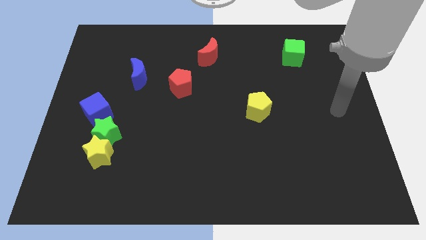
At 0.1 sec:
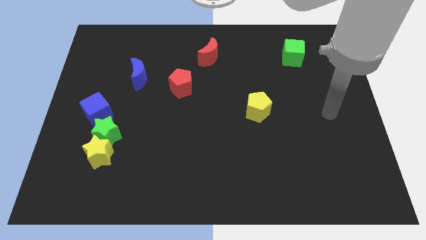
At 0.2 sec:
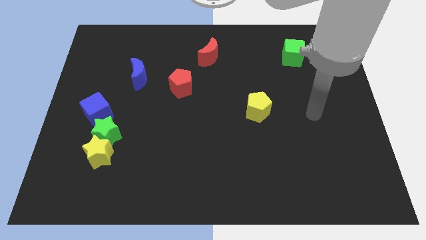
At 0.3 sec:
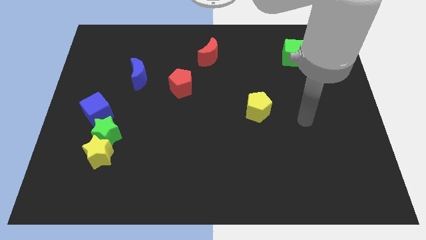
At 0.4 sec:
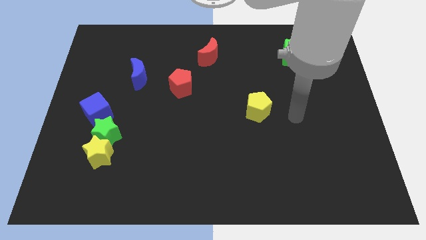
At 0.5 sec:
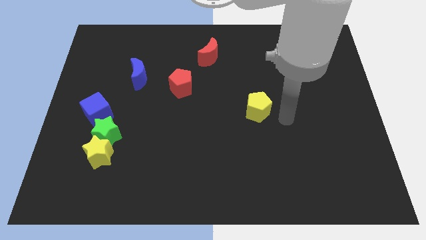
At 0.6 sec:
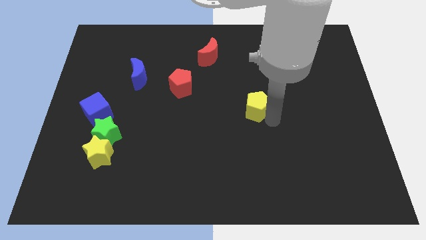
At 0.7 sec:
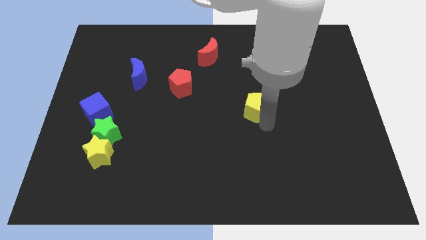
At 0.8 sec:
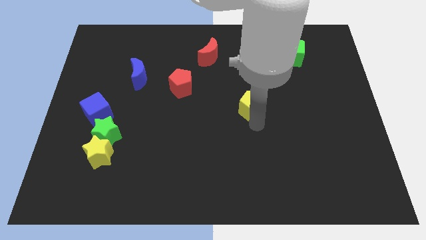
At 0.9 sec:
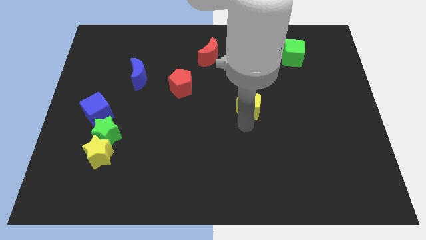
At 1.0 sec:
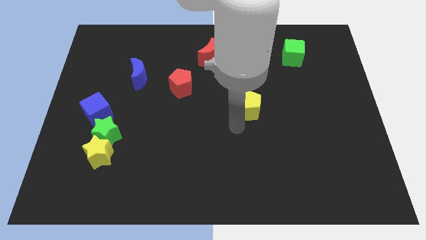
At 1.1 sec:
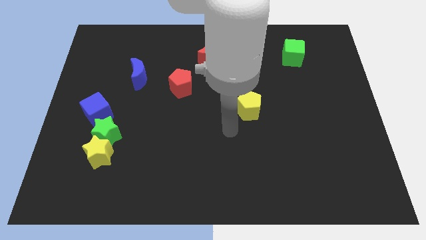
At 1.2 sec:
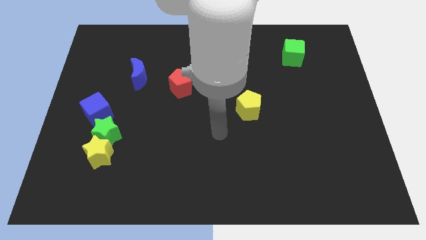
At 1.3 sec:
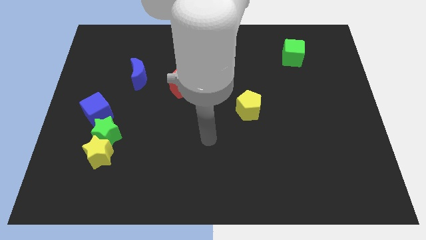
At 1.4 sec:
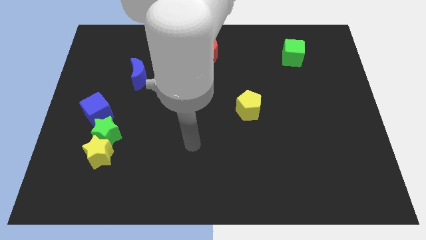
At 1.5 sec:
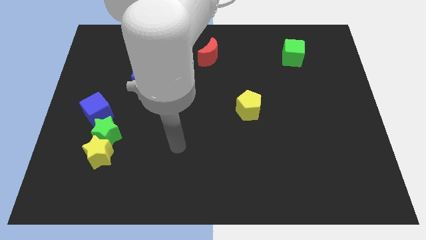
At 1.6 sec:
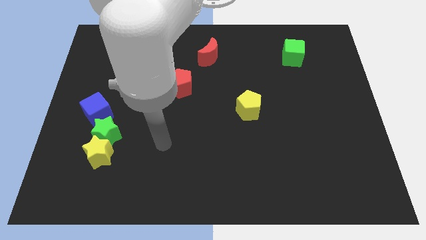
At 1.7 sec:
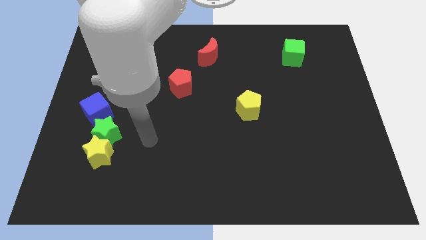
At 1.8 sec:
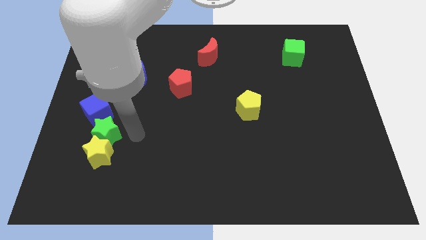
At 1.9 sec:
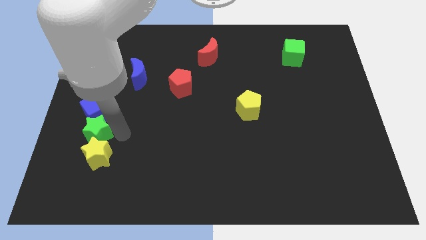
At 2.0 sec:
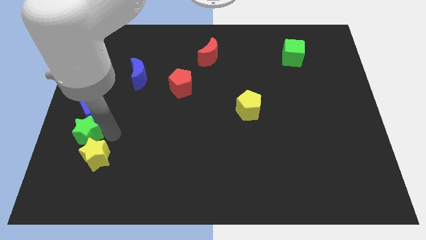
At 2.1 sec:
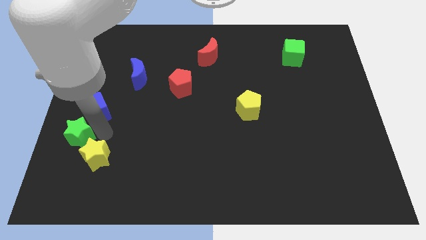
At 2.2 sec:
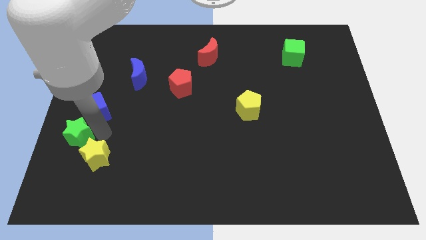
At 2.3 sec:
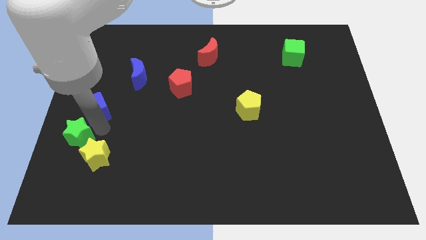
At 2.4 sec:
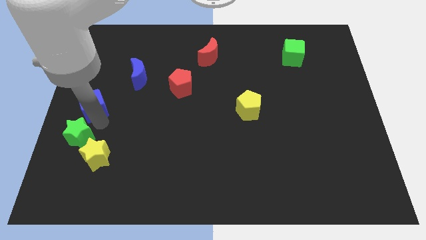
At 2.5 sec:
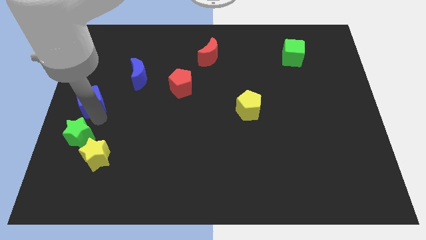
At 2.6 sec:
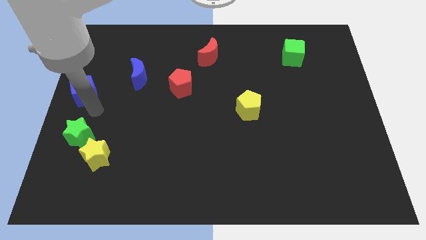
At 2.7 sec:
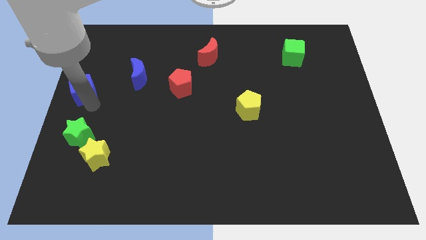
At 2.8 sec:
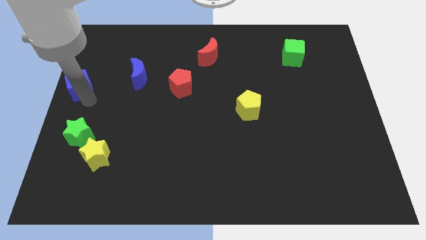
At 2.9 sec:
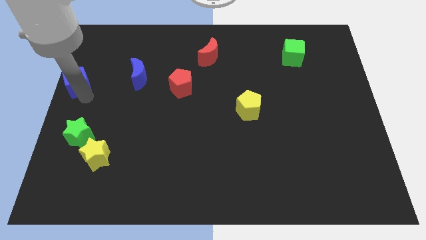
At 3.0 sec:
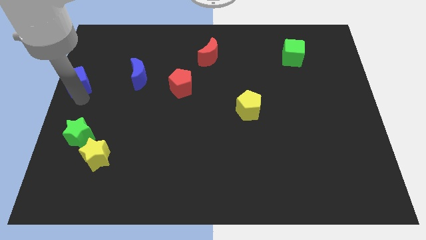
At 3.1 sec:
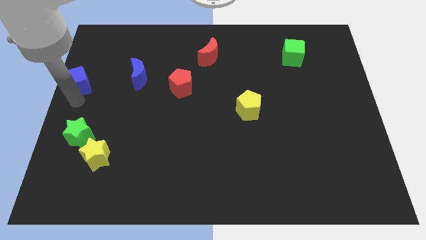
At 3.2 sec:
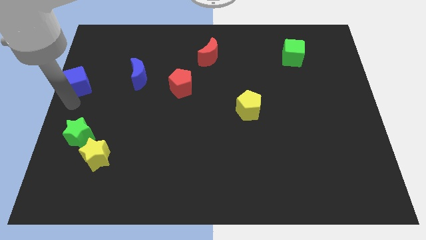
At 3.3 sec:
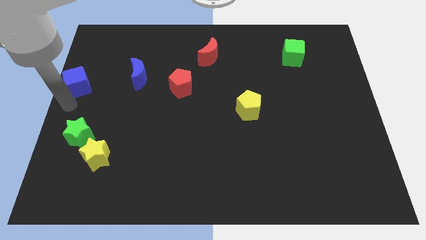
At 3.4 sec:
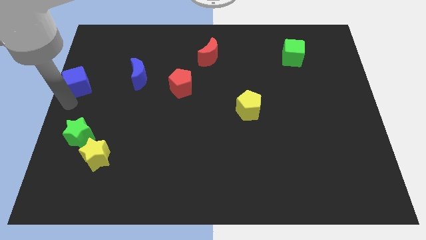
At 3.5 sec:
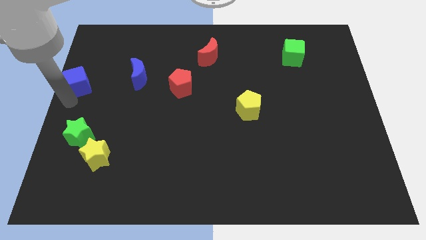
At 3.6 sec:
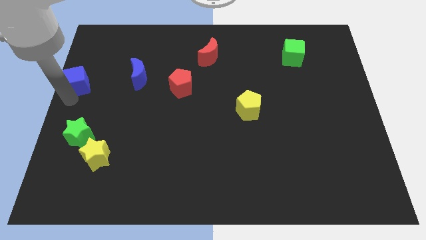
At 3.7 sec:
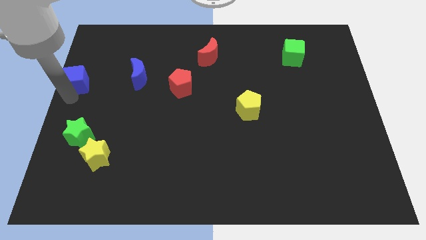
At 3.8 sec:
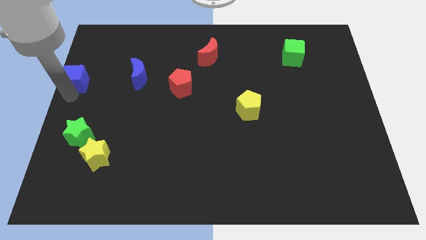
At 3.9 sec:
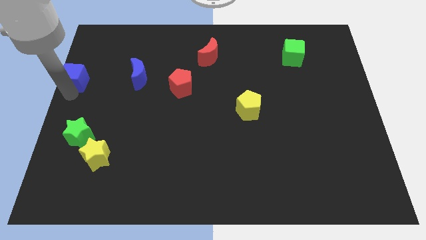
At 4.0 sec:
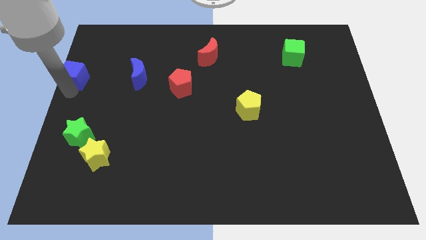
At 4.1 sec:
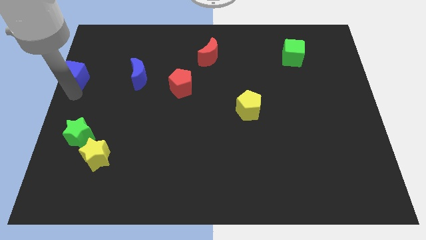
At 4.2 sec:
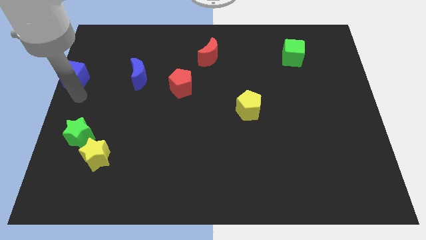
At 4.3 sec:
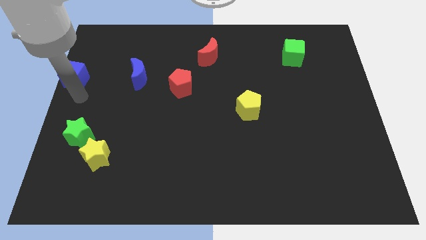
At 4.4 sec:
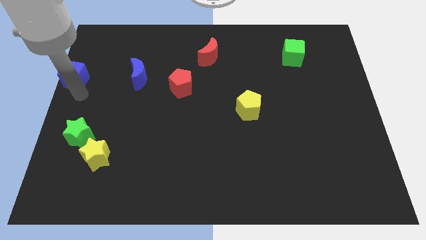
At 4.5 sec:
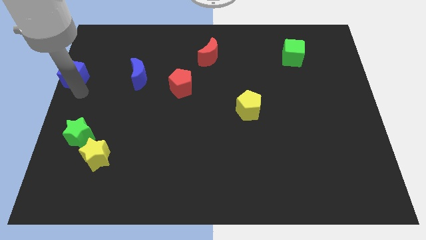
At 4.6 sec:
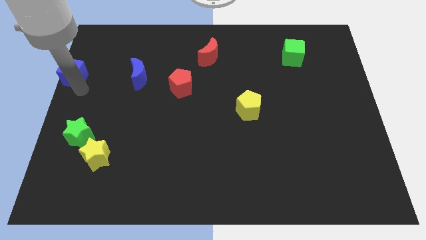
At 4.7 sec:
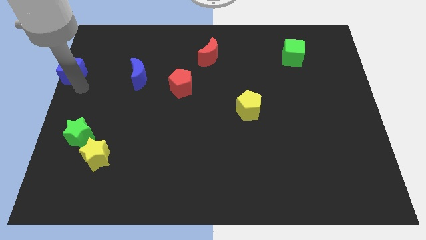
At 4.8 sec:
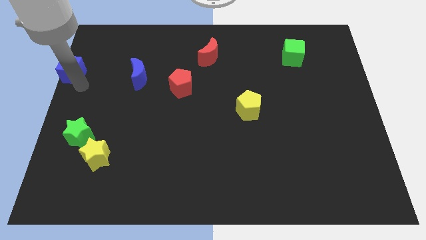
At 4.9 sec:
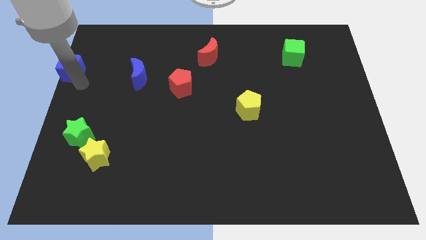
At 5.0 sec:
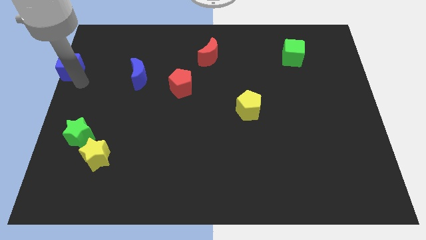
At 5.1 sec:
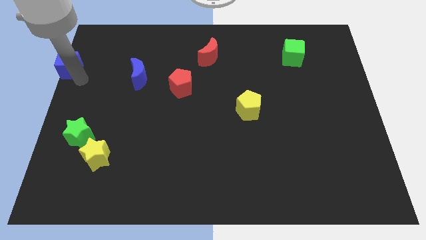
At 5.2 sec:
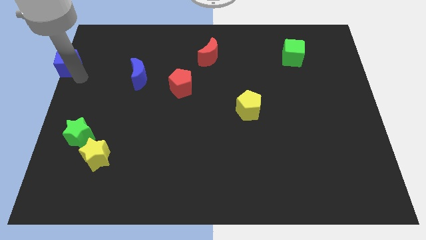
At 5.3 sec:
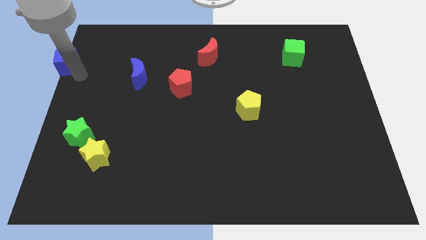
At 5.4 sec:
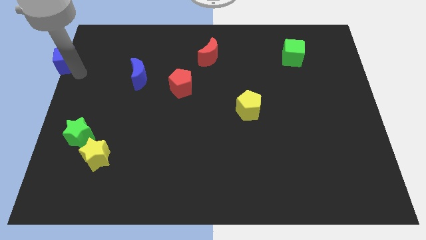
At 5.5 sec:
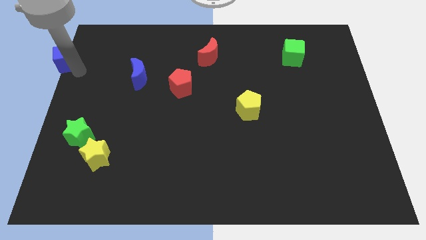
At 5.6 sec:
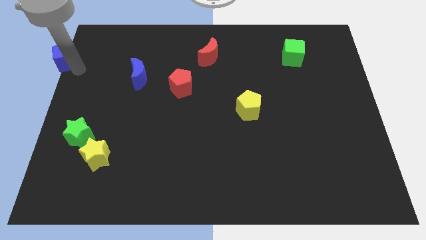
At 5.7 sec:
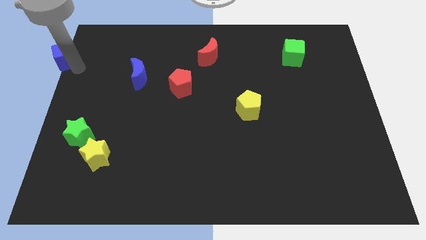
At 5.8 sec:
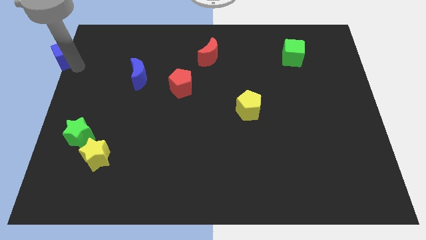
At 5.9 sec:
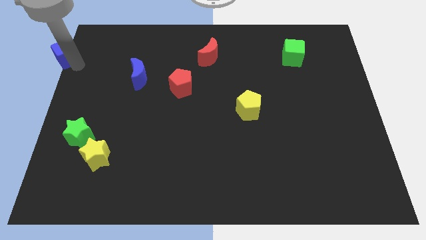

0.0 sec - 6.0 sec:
slide the blue cube to the upper left corner
